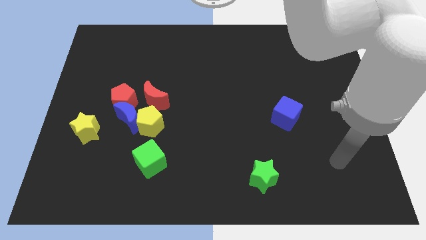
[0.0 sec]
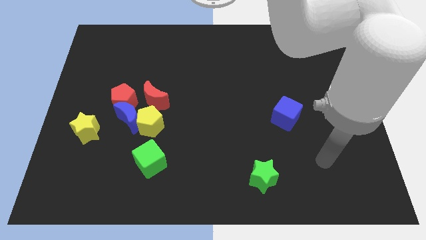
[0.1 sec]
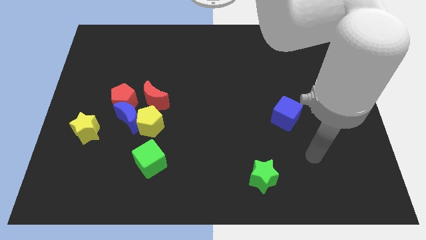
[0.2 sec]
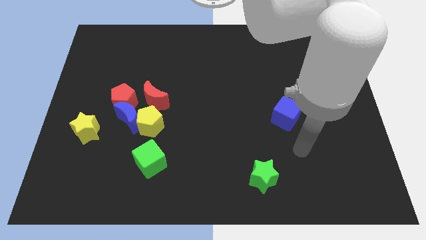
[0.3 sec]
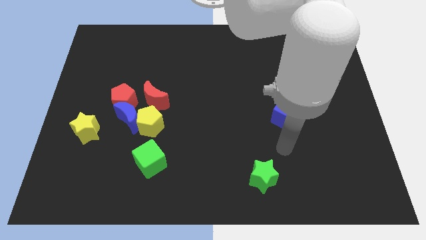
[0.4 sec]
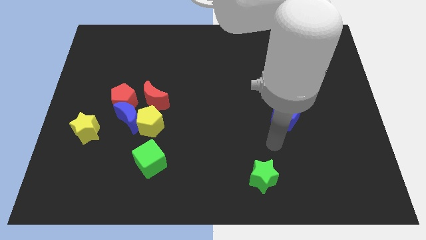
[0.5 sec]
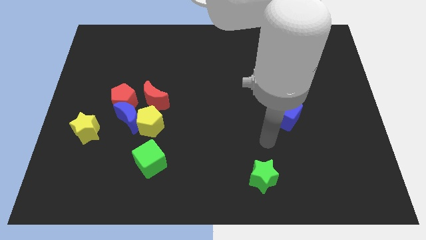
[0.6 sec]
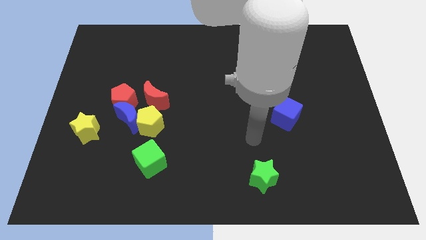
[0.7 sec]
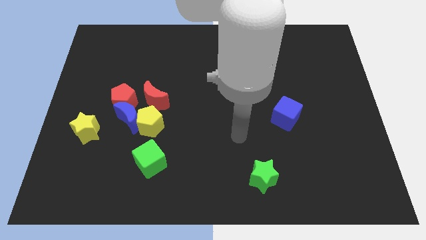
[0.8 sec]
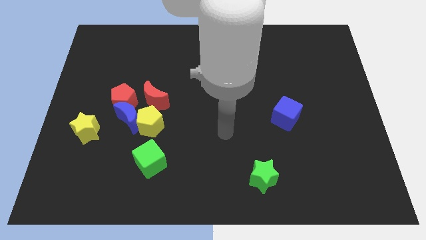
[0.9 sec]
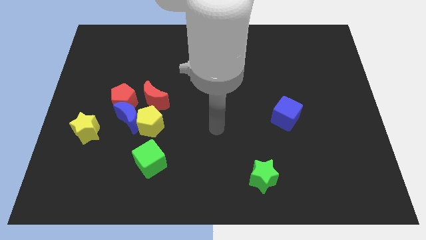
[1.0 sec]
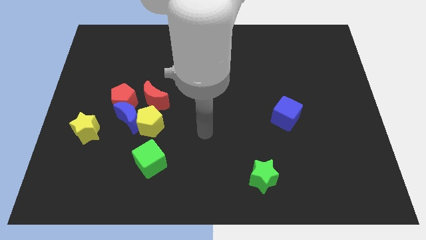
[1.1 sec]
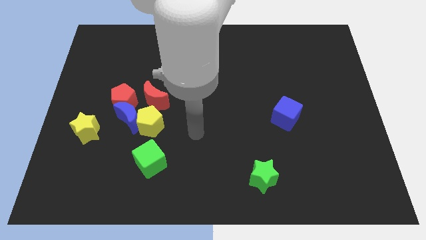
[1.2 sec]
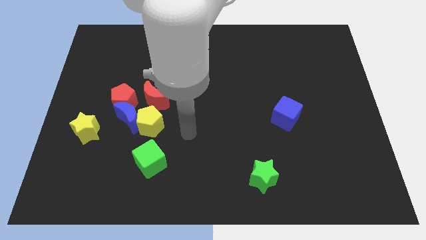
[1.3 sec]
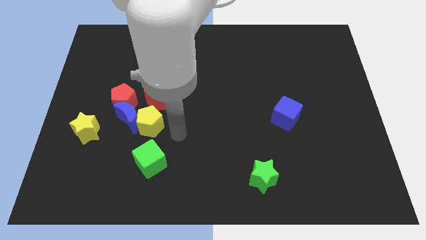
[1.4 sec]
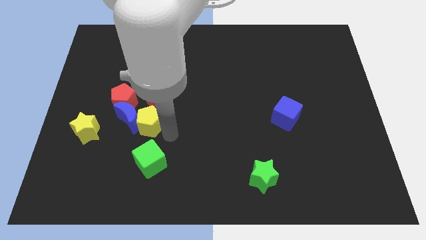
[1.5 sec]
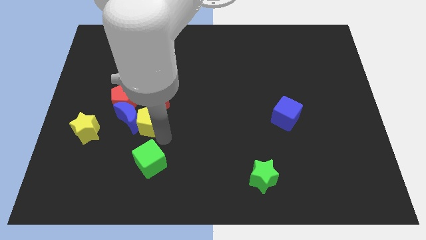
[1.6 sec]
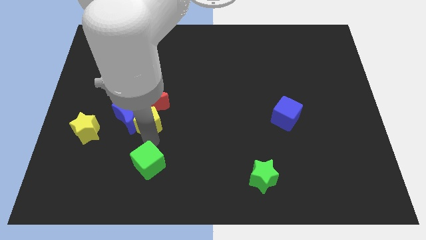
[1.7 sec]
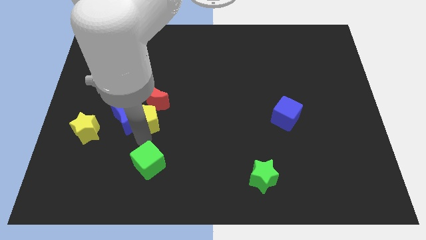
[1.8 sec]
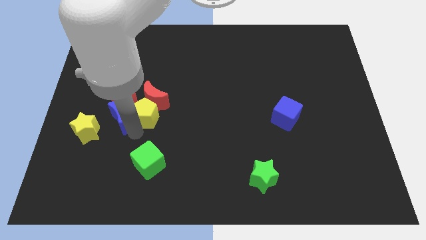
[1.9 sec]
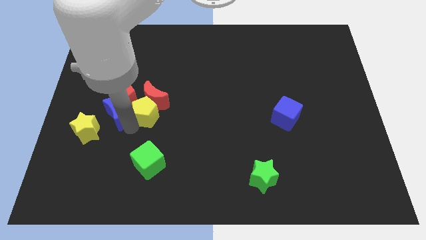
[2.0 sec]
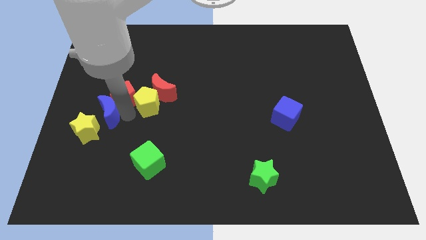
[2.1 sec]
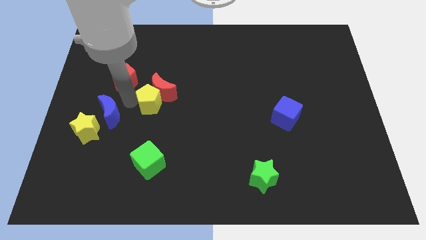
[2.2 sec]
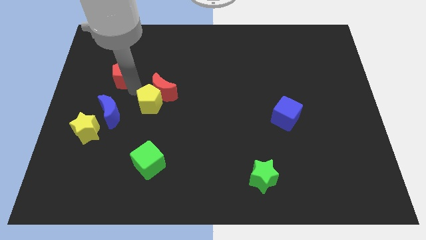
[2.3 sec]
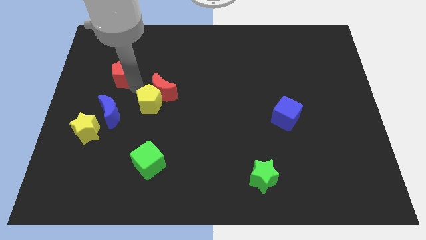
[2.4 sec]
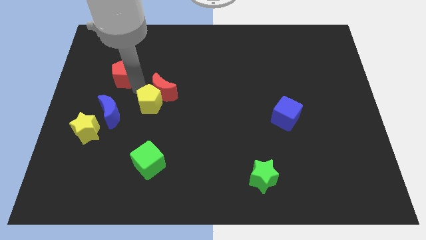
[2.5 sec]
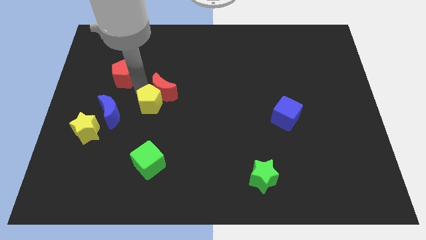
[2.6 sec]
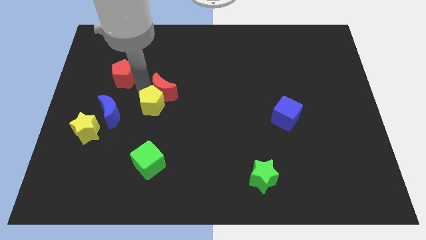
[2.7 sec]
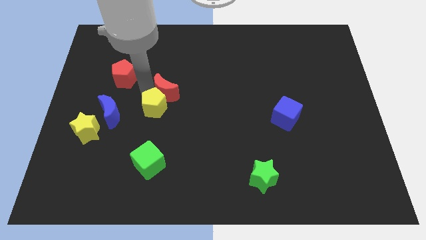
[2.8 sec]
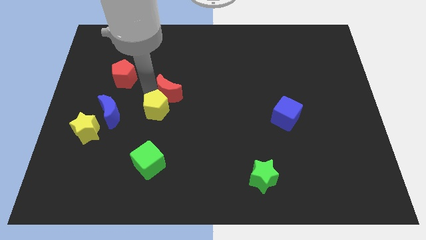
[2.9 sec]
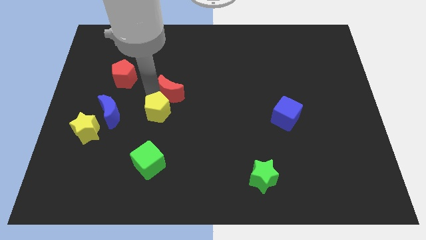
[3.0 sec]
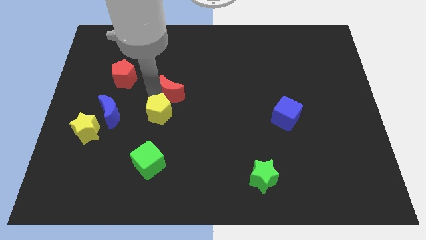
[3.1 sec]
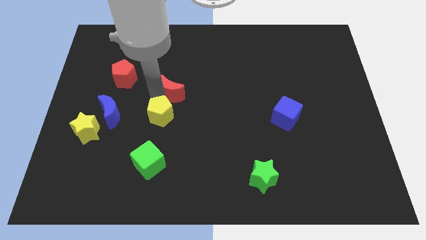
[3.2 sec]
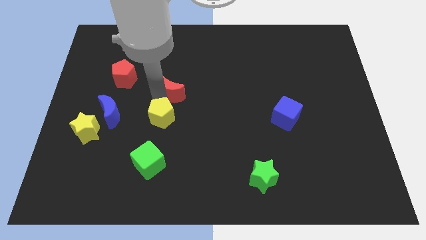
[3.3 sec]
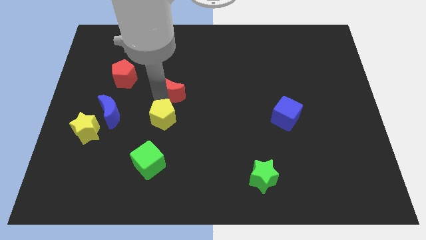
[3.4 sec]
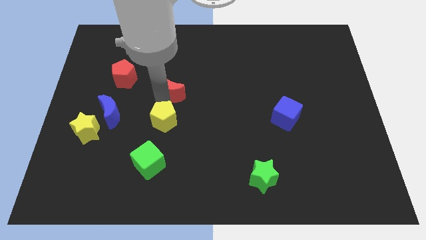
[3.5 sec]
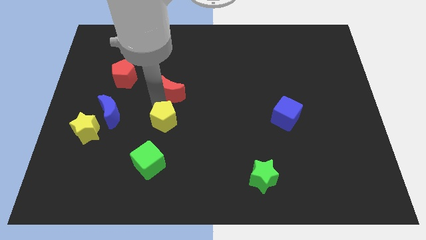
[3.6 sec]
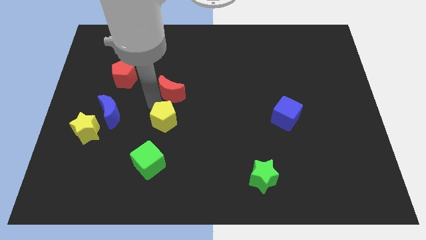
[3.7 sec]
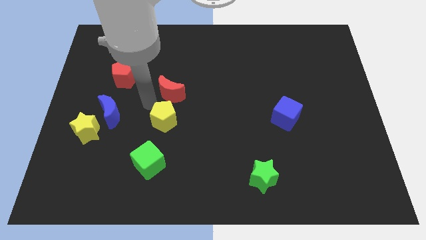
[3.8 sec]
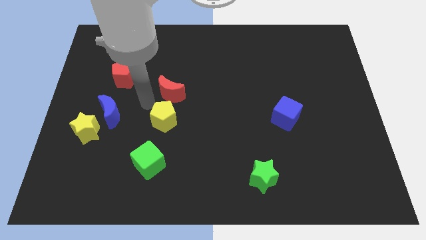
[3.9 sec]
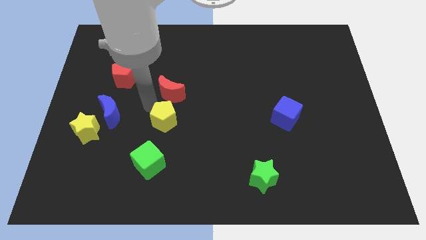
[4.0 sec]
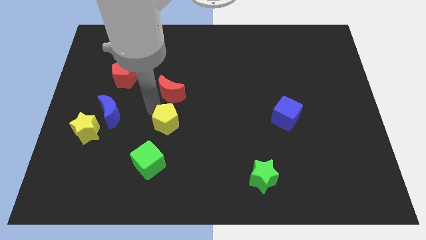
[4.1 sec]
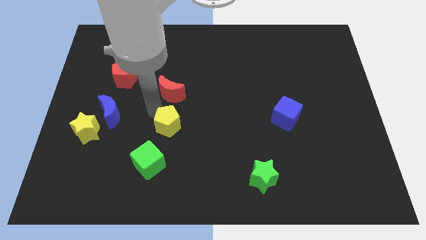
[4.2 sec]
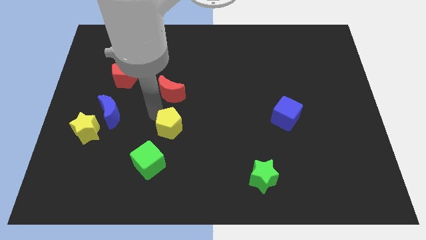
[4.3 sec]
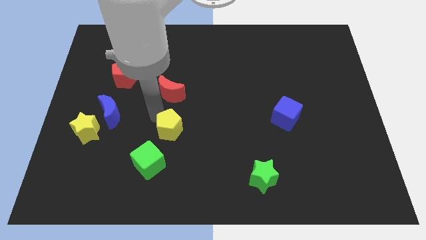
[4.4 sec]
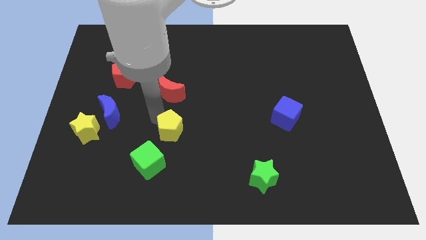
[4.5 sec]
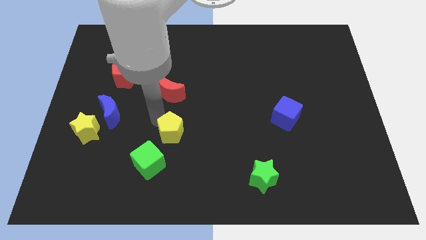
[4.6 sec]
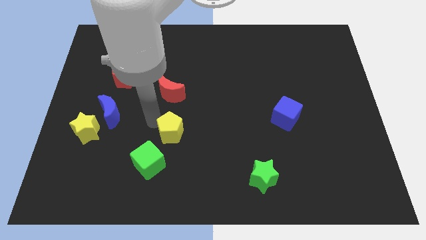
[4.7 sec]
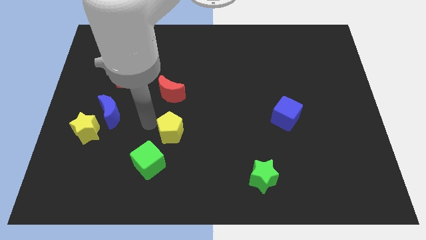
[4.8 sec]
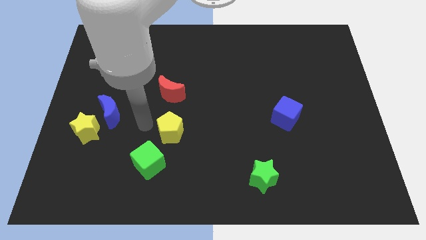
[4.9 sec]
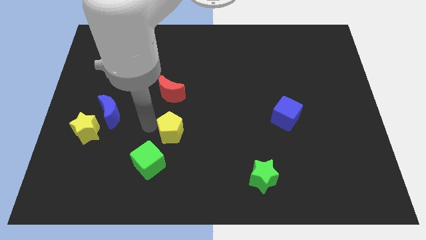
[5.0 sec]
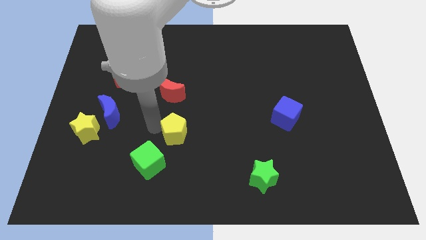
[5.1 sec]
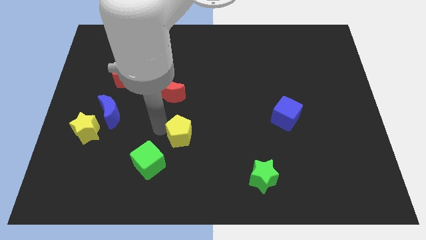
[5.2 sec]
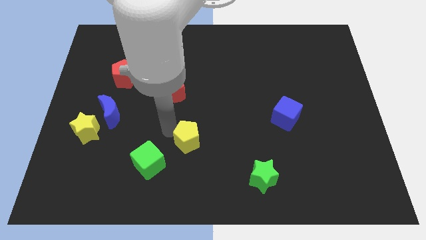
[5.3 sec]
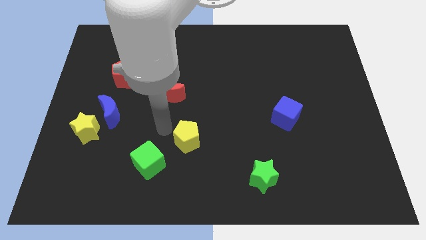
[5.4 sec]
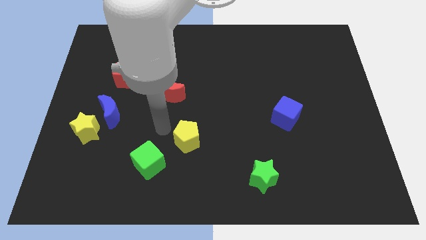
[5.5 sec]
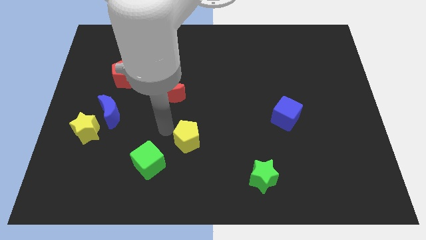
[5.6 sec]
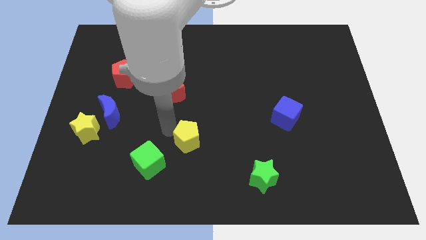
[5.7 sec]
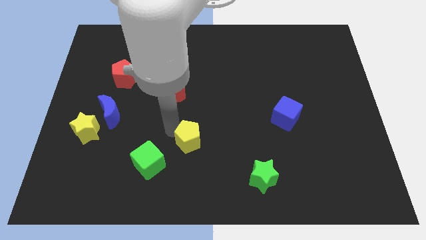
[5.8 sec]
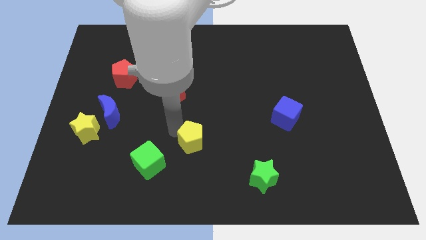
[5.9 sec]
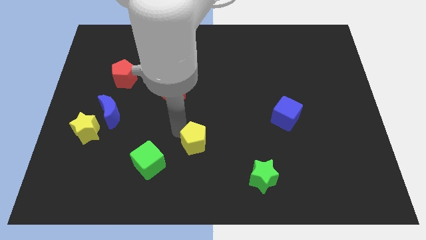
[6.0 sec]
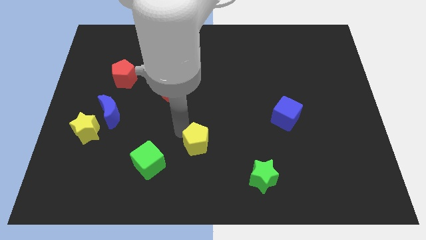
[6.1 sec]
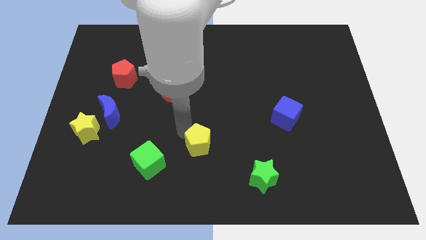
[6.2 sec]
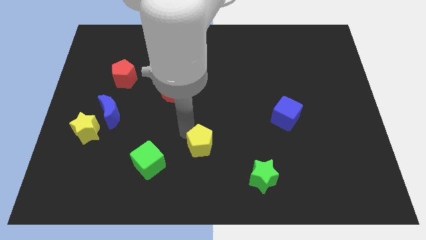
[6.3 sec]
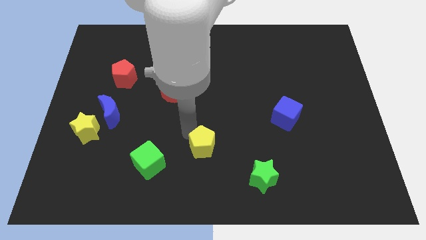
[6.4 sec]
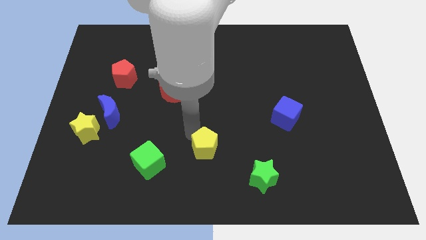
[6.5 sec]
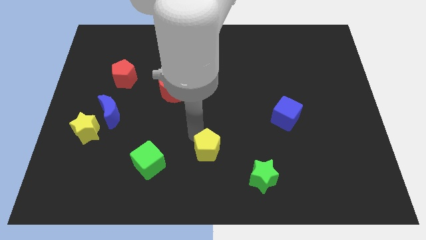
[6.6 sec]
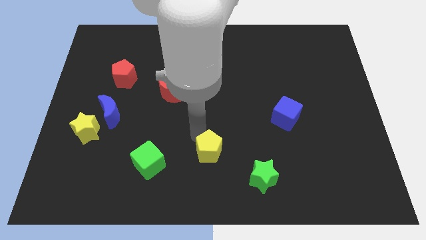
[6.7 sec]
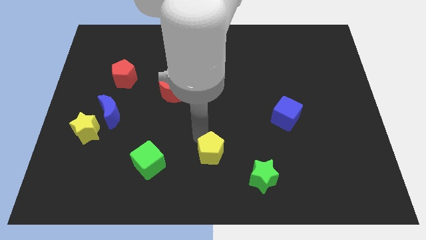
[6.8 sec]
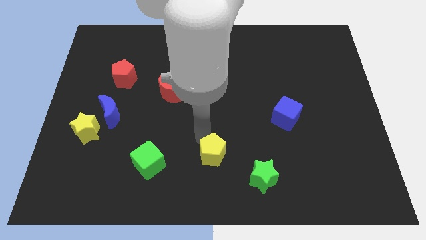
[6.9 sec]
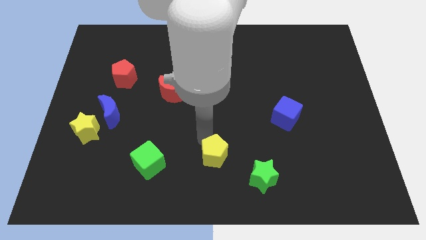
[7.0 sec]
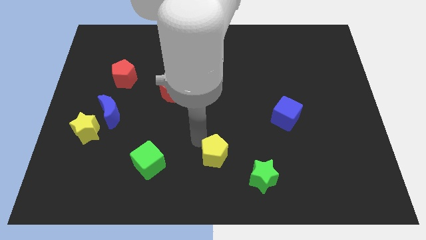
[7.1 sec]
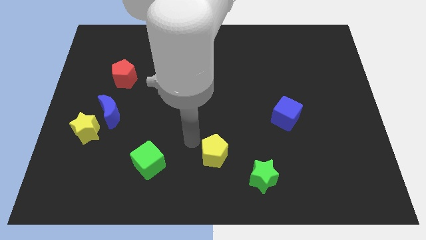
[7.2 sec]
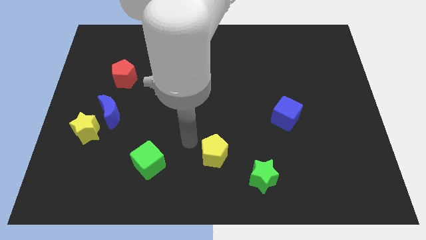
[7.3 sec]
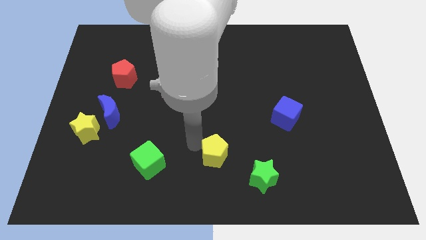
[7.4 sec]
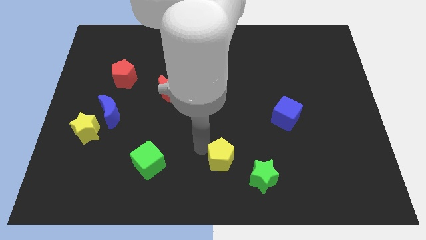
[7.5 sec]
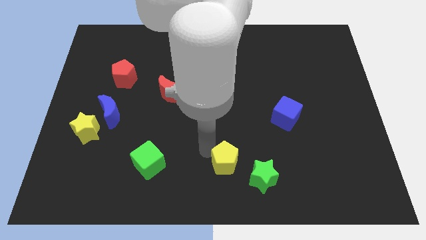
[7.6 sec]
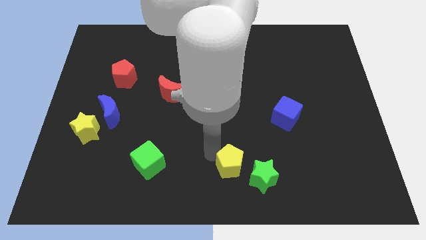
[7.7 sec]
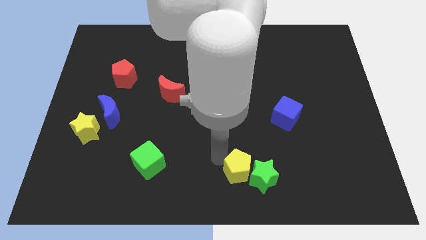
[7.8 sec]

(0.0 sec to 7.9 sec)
push the yellow pentagon close to the green star
